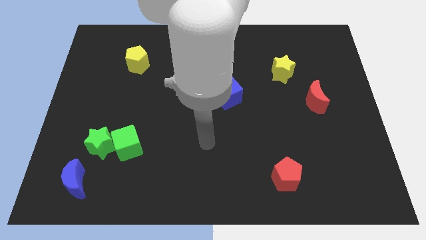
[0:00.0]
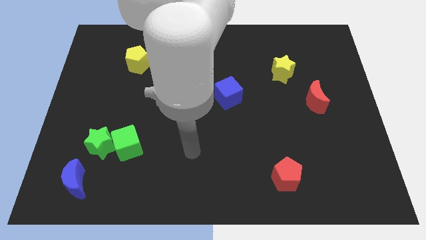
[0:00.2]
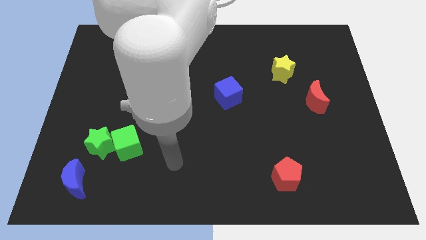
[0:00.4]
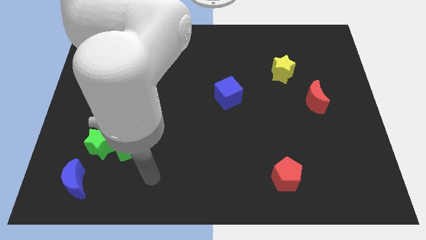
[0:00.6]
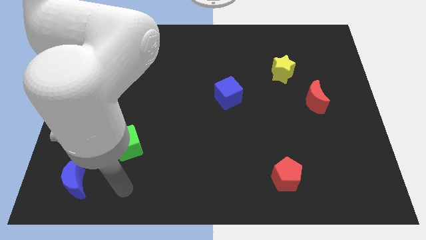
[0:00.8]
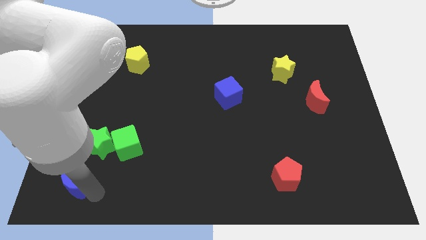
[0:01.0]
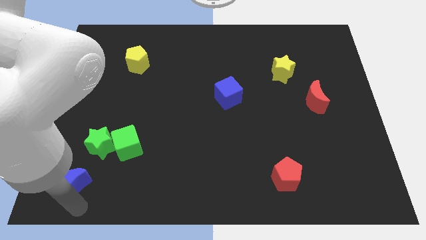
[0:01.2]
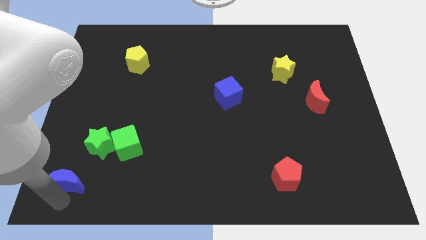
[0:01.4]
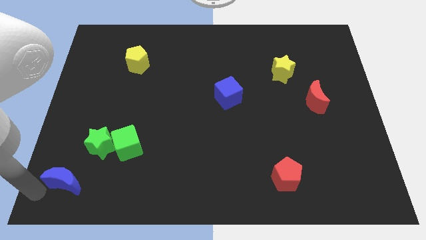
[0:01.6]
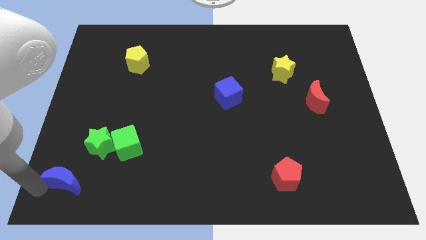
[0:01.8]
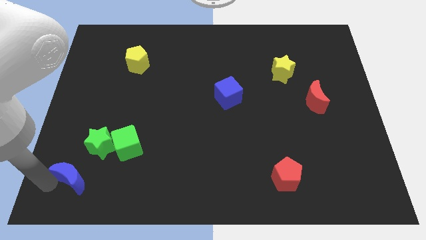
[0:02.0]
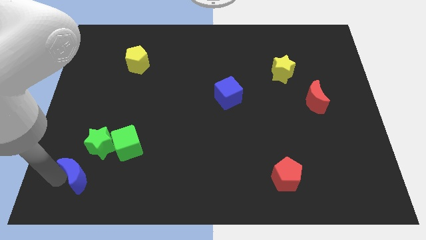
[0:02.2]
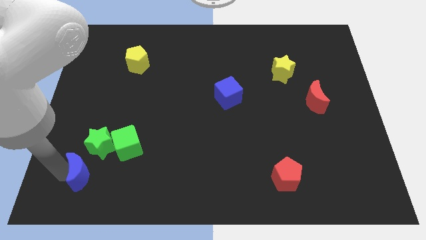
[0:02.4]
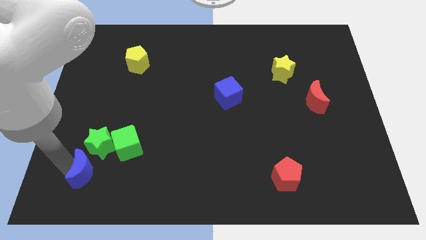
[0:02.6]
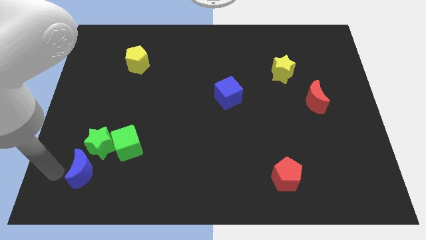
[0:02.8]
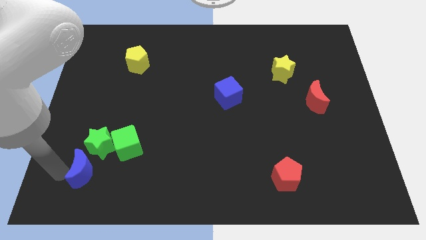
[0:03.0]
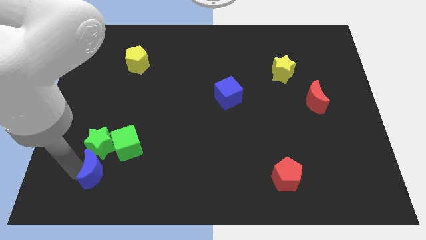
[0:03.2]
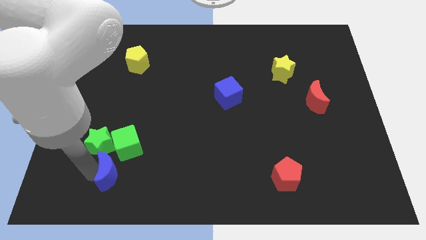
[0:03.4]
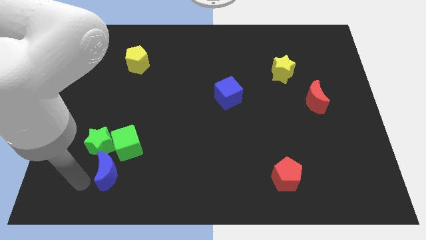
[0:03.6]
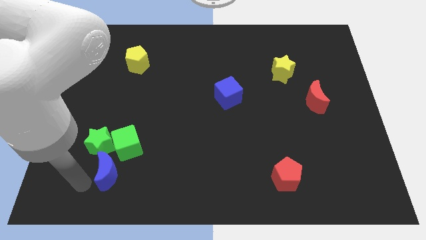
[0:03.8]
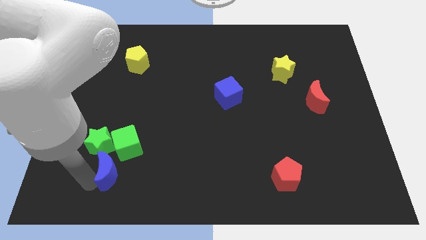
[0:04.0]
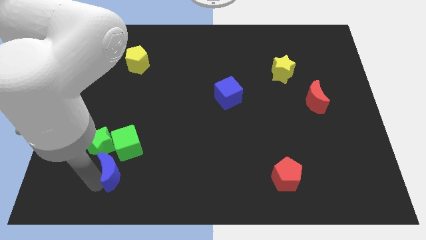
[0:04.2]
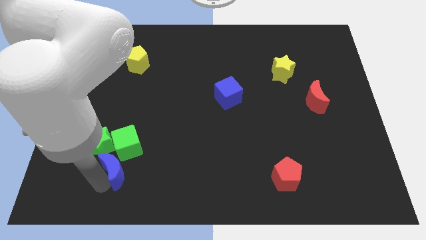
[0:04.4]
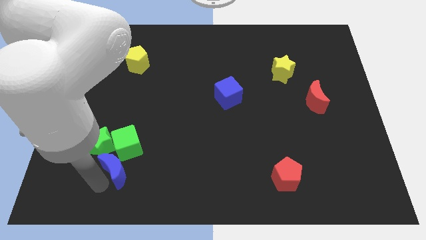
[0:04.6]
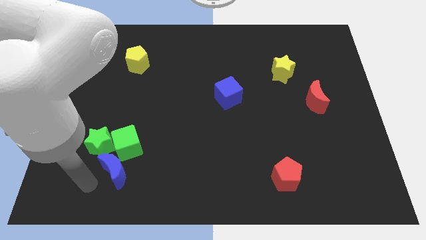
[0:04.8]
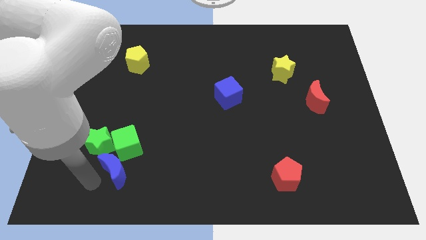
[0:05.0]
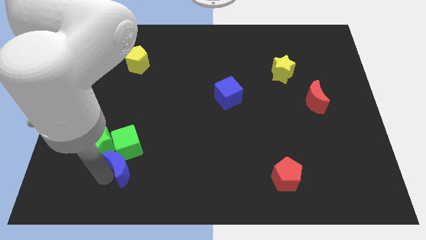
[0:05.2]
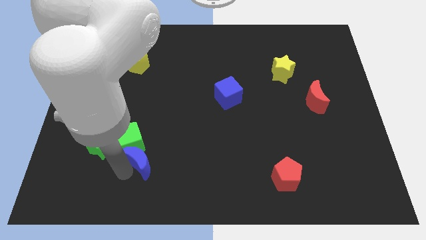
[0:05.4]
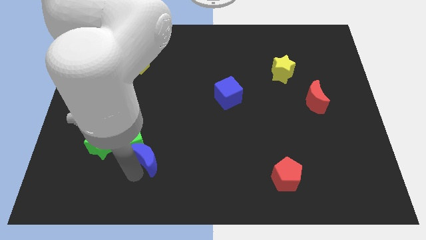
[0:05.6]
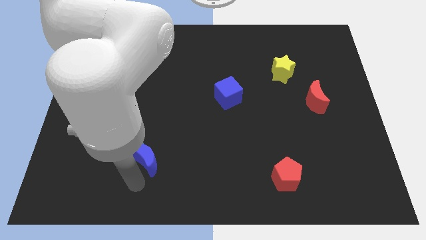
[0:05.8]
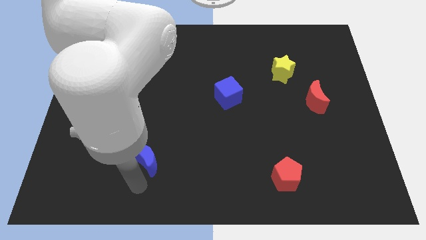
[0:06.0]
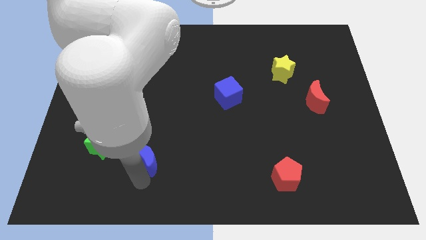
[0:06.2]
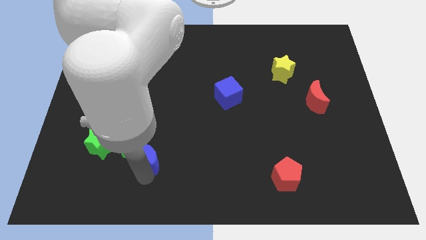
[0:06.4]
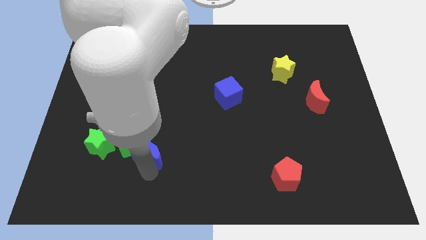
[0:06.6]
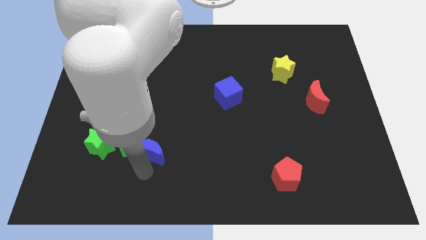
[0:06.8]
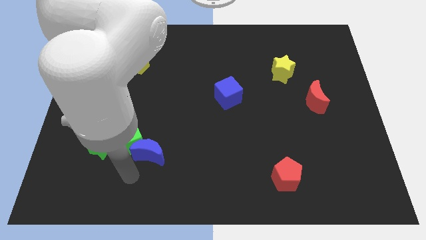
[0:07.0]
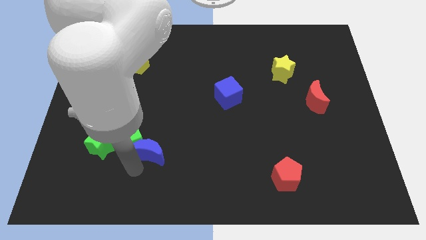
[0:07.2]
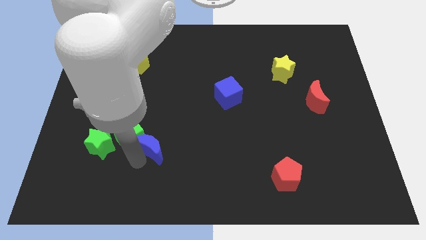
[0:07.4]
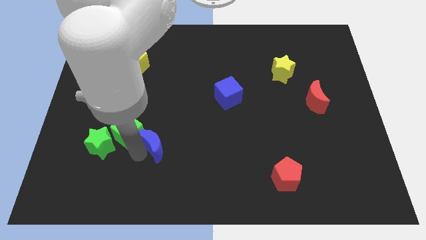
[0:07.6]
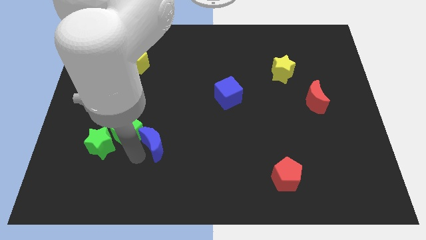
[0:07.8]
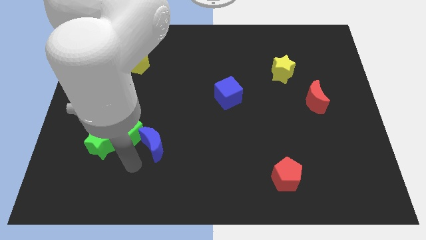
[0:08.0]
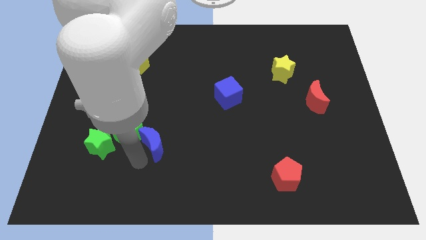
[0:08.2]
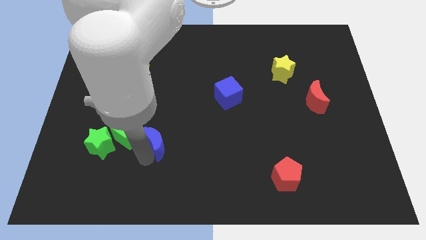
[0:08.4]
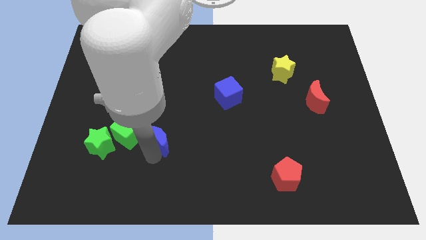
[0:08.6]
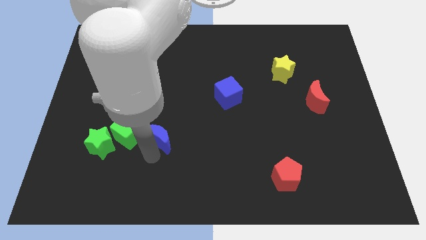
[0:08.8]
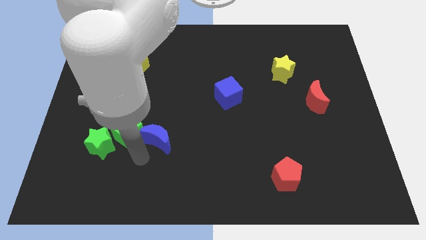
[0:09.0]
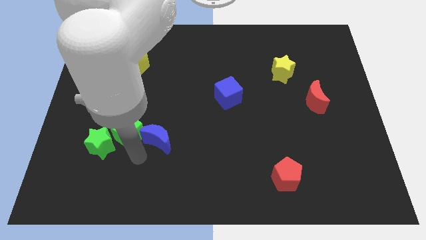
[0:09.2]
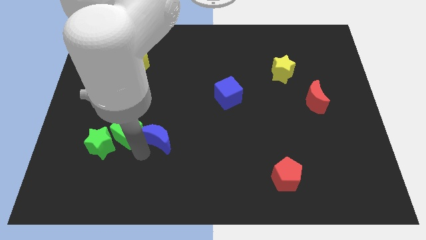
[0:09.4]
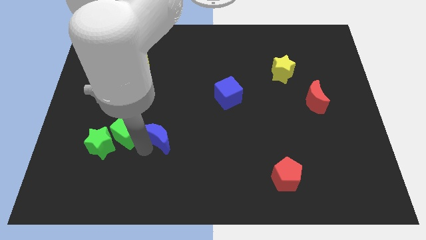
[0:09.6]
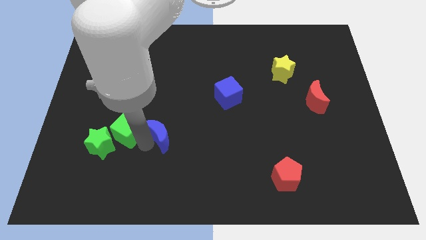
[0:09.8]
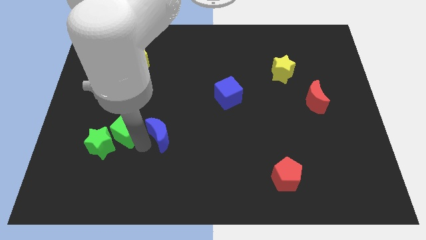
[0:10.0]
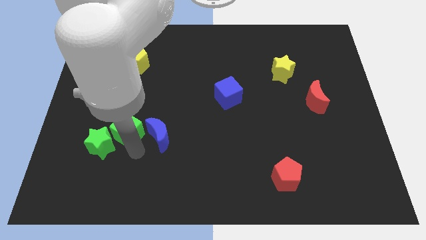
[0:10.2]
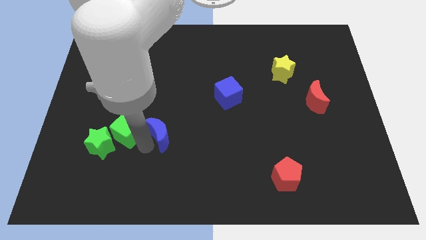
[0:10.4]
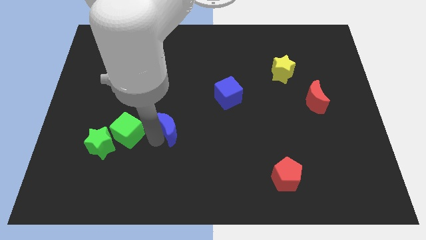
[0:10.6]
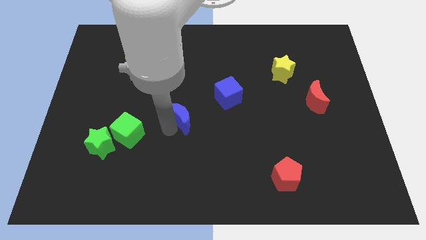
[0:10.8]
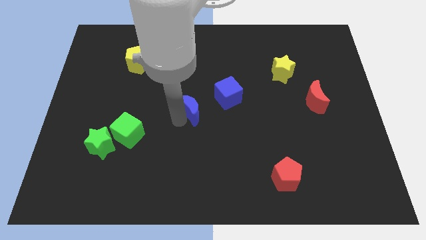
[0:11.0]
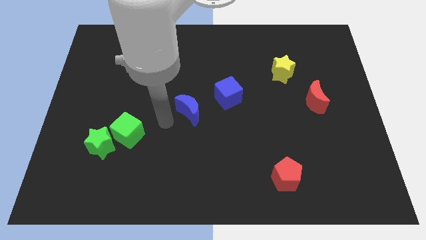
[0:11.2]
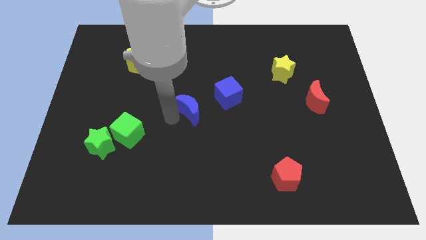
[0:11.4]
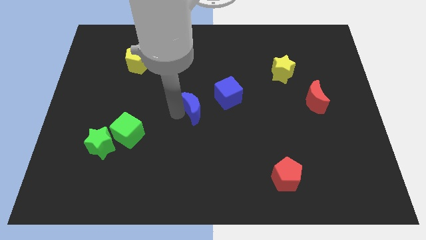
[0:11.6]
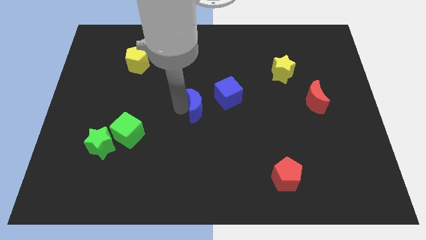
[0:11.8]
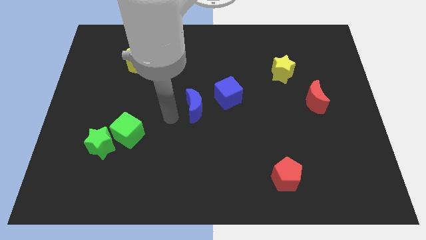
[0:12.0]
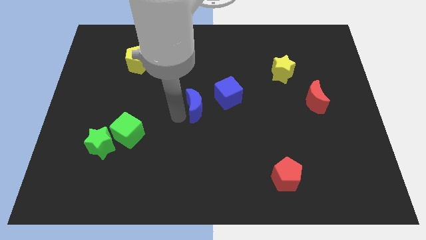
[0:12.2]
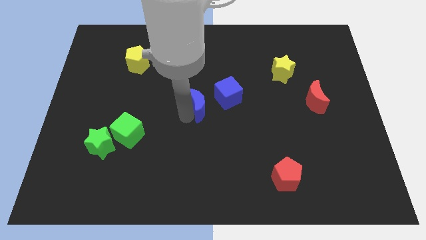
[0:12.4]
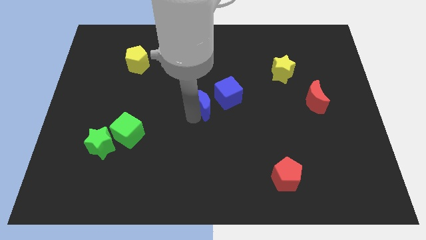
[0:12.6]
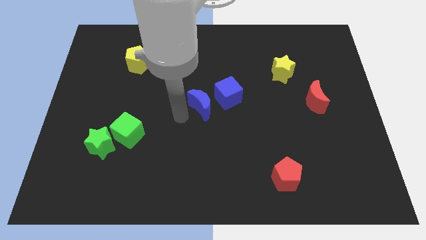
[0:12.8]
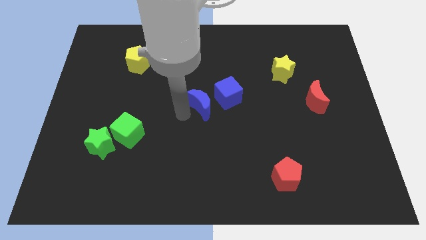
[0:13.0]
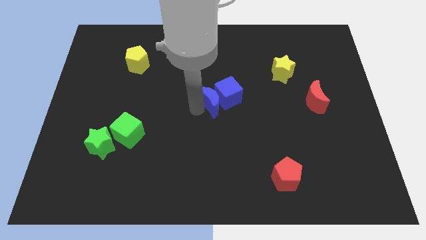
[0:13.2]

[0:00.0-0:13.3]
put the blue moon close to the blue cube

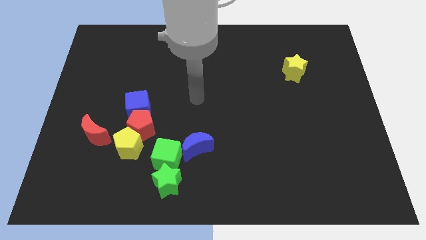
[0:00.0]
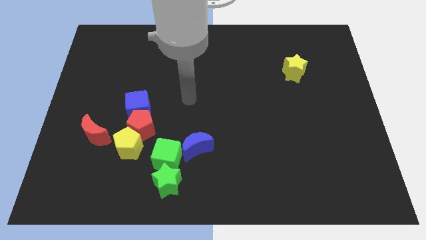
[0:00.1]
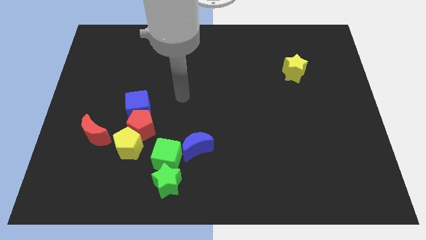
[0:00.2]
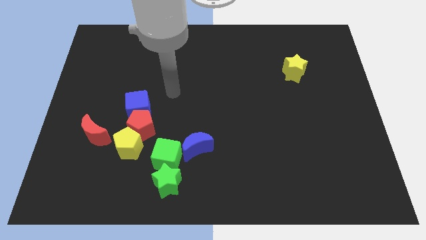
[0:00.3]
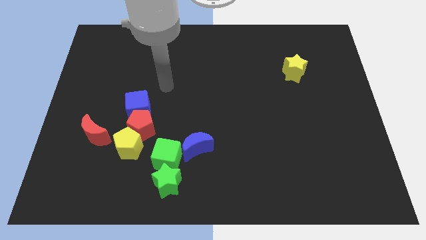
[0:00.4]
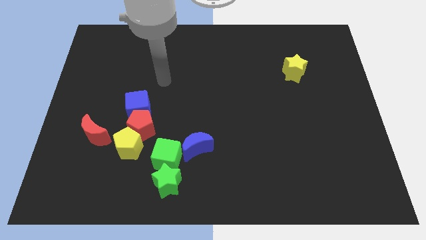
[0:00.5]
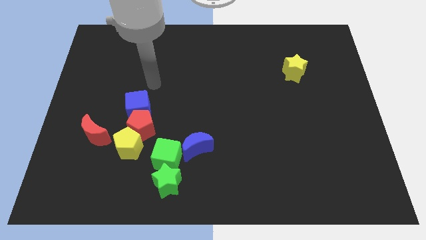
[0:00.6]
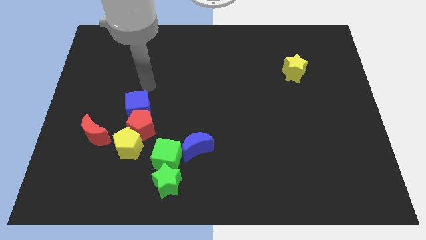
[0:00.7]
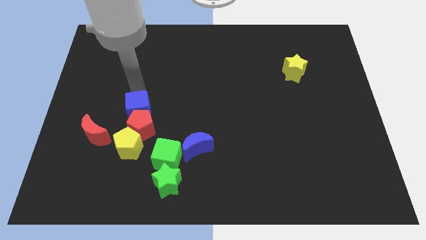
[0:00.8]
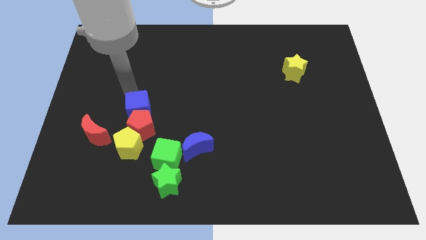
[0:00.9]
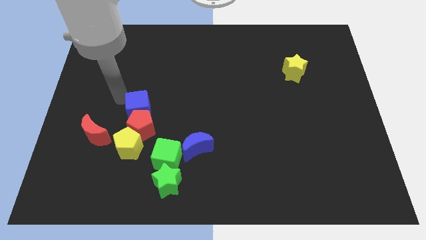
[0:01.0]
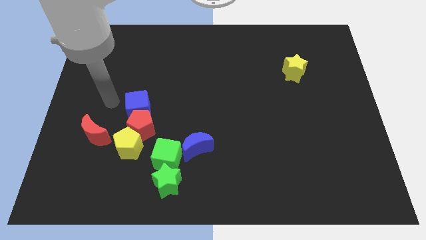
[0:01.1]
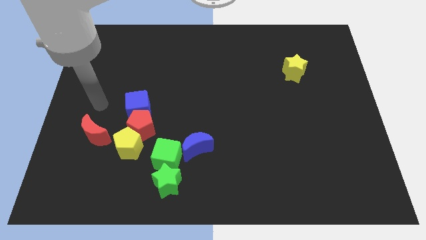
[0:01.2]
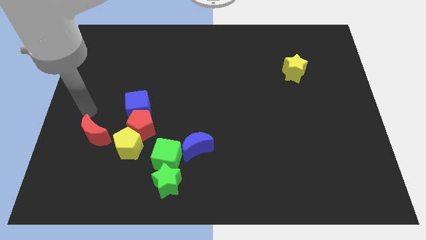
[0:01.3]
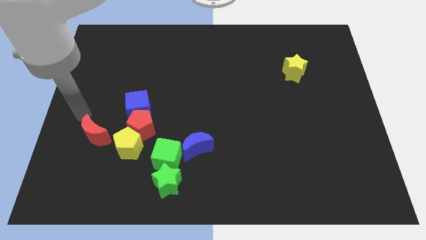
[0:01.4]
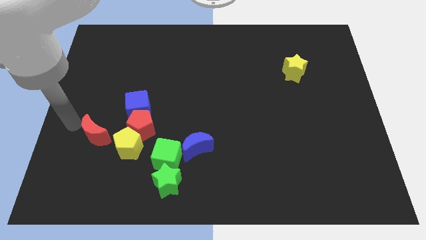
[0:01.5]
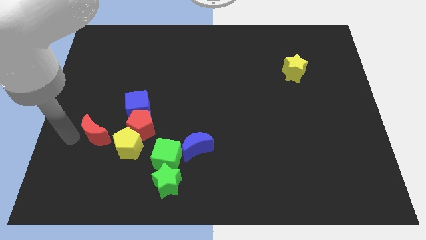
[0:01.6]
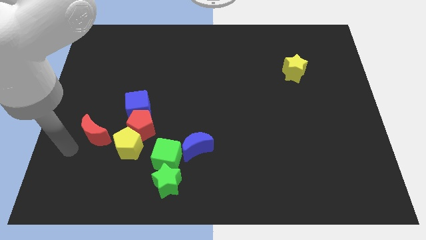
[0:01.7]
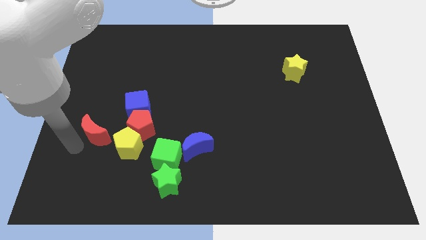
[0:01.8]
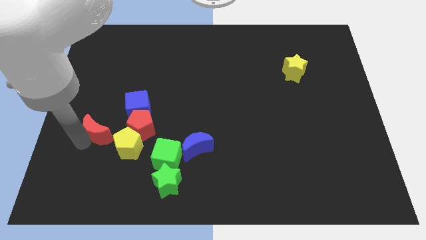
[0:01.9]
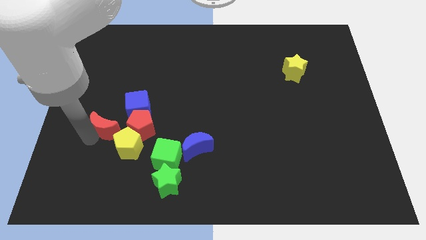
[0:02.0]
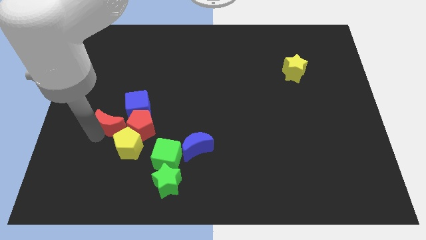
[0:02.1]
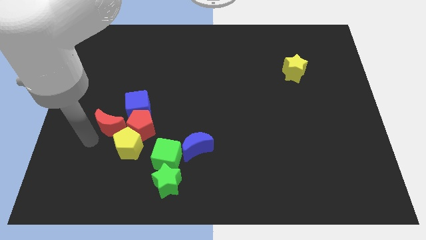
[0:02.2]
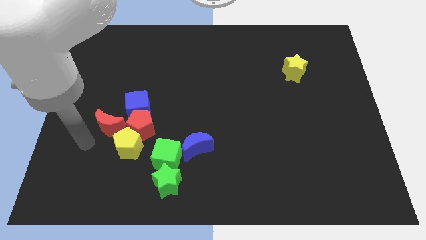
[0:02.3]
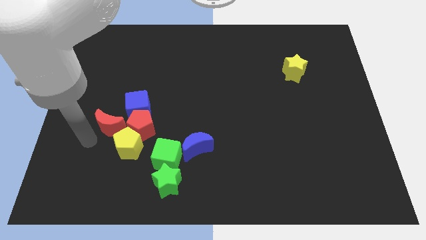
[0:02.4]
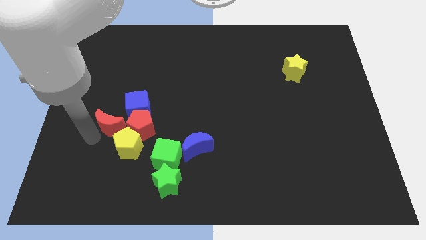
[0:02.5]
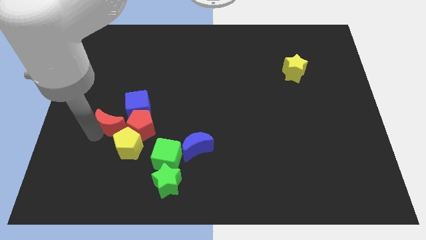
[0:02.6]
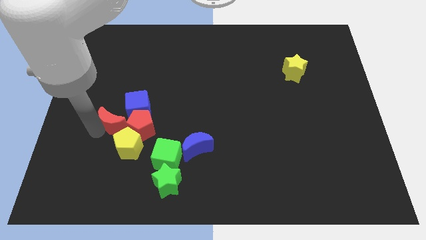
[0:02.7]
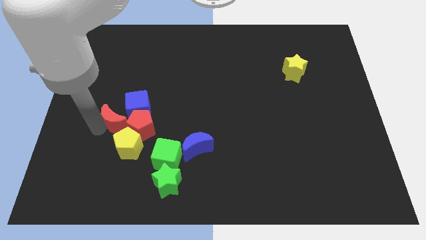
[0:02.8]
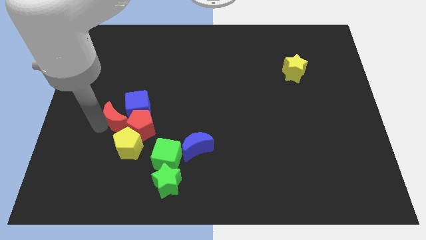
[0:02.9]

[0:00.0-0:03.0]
push the red moon next to the blue cube
